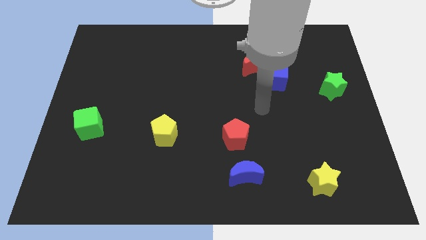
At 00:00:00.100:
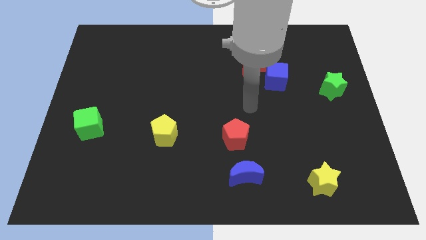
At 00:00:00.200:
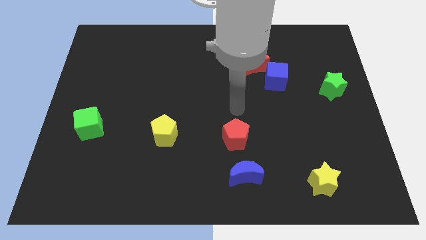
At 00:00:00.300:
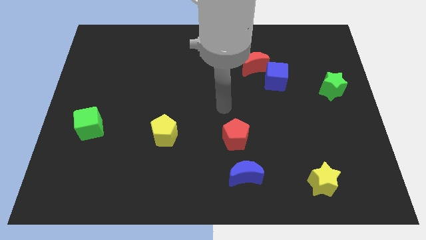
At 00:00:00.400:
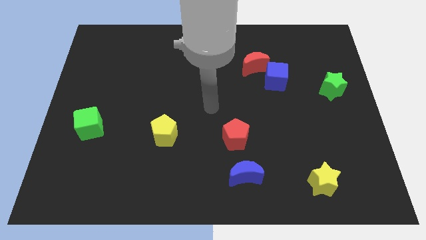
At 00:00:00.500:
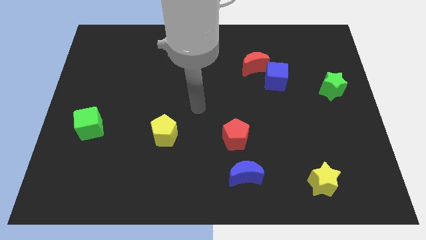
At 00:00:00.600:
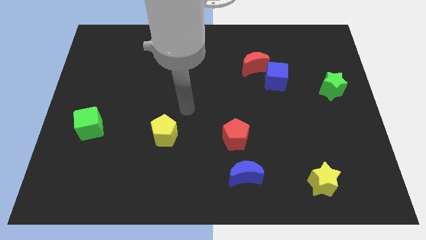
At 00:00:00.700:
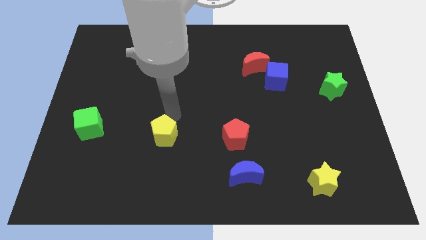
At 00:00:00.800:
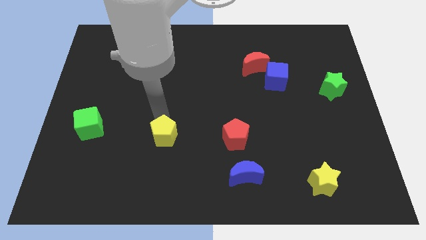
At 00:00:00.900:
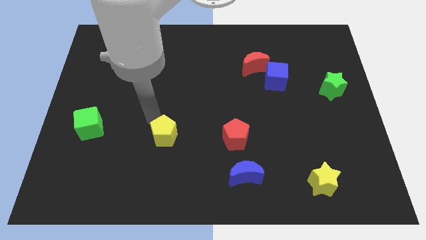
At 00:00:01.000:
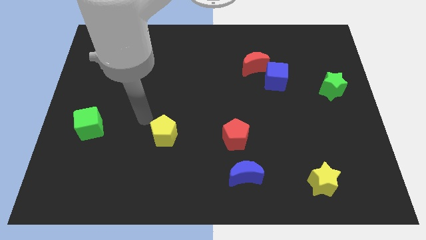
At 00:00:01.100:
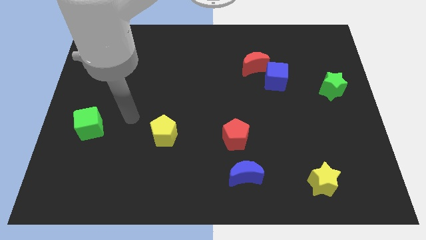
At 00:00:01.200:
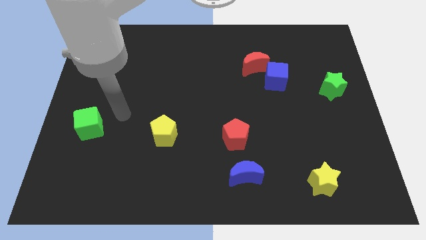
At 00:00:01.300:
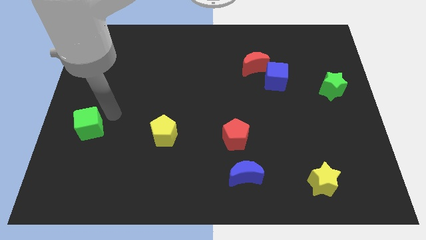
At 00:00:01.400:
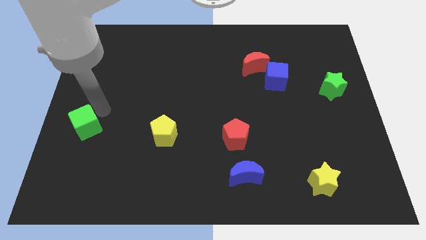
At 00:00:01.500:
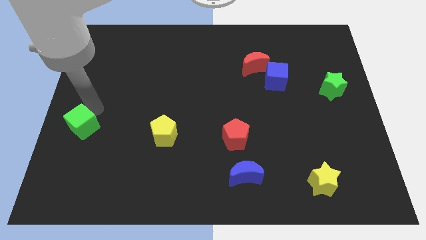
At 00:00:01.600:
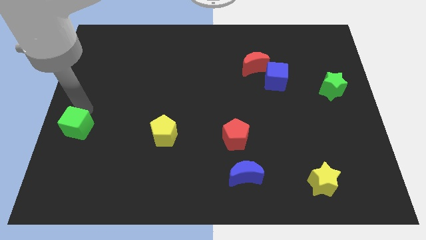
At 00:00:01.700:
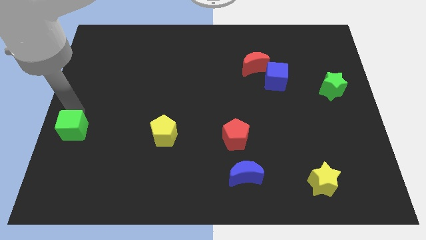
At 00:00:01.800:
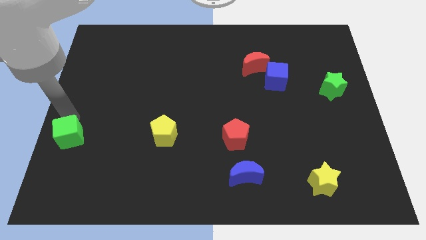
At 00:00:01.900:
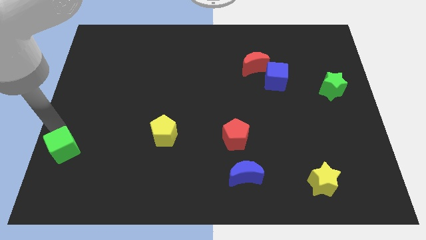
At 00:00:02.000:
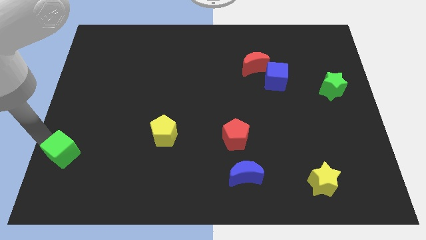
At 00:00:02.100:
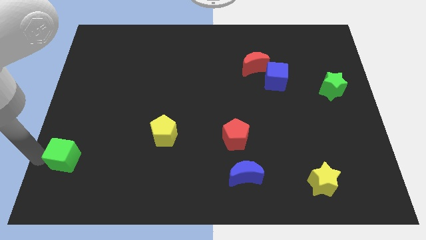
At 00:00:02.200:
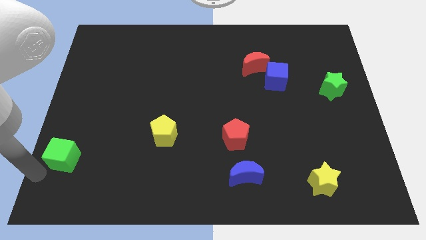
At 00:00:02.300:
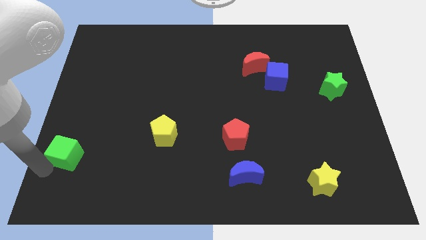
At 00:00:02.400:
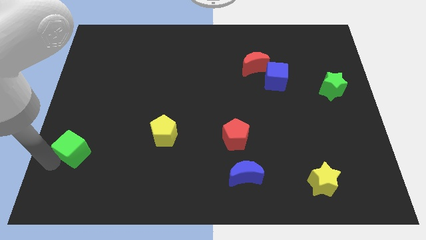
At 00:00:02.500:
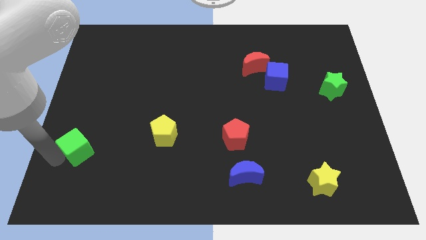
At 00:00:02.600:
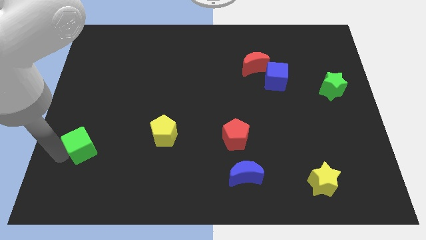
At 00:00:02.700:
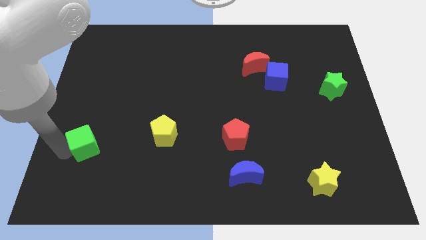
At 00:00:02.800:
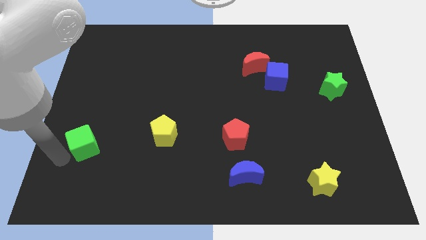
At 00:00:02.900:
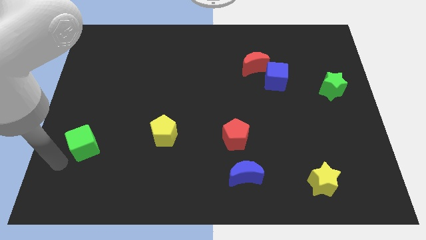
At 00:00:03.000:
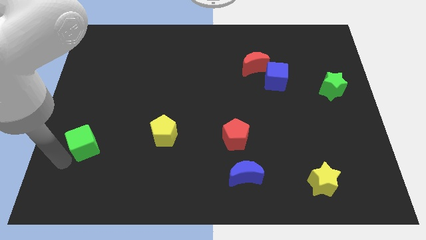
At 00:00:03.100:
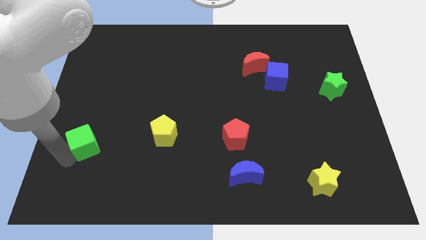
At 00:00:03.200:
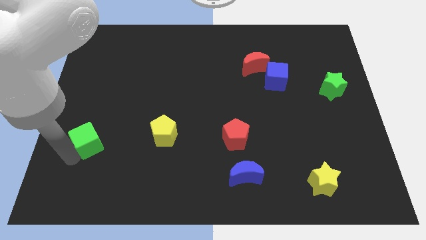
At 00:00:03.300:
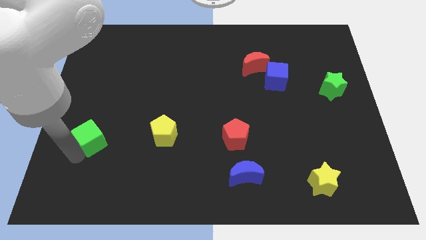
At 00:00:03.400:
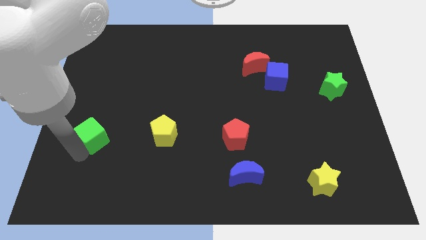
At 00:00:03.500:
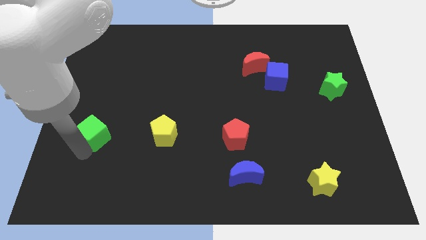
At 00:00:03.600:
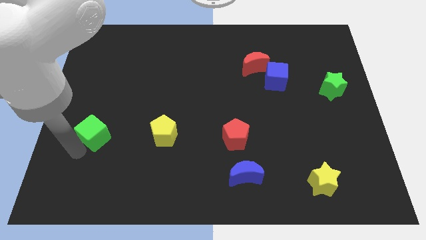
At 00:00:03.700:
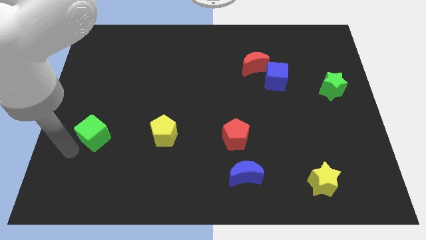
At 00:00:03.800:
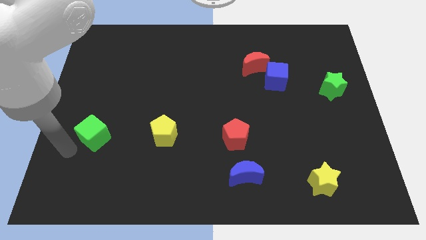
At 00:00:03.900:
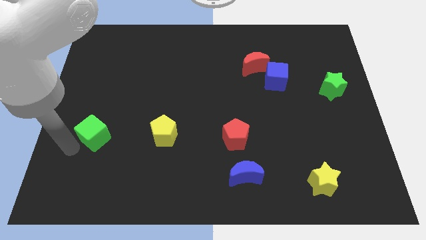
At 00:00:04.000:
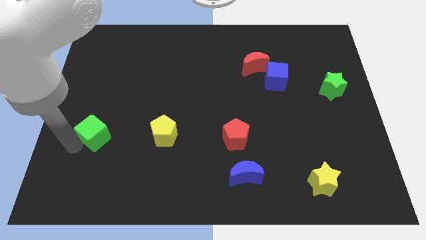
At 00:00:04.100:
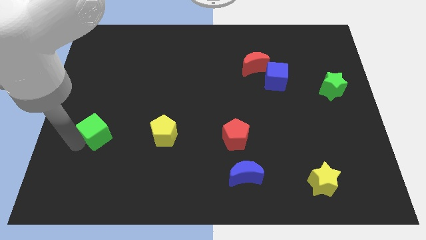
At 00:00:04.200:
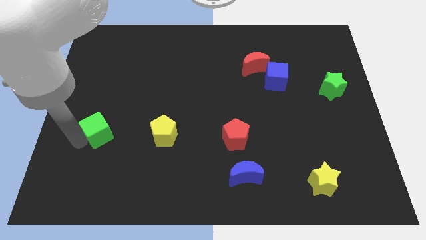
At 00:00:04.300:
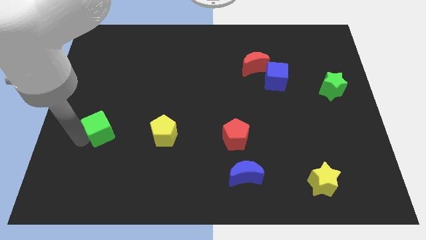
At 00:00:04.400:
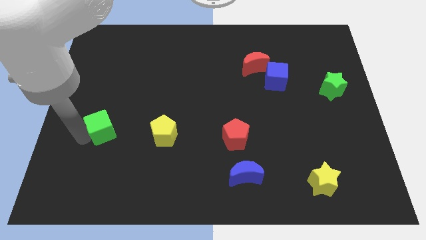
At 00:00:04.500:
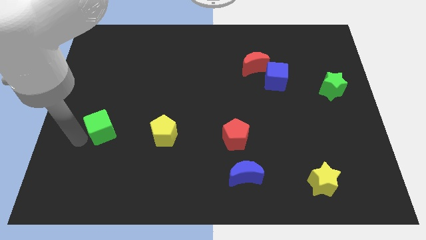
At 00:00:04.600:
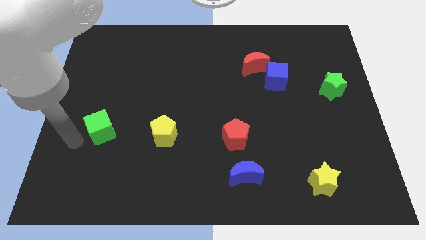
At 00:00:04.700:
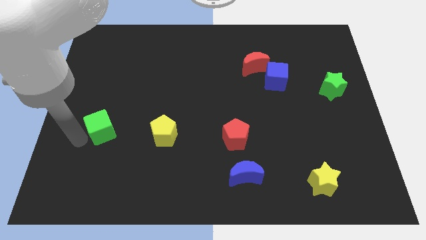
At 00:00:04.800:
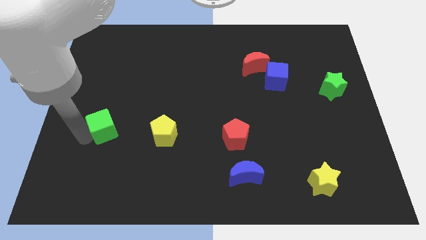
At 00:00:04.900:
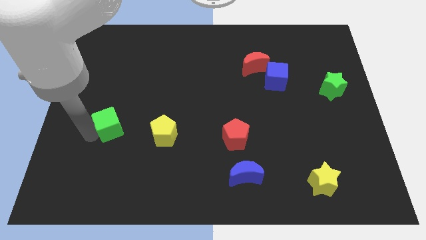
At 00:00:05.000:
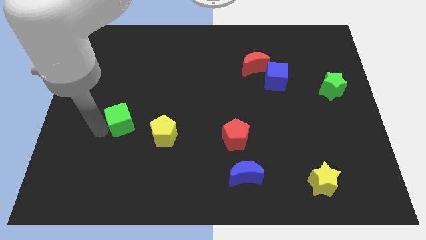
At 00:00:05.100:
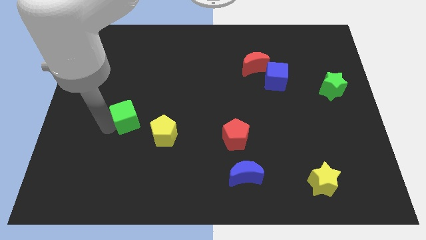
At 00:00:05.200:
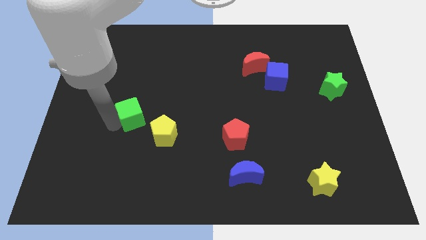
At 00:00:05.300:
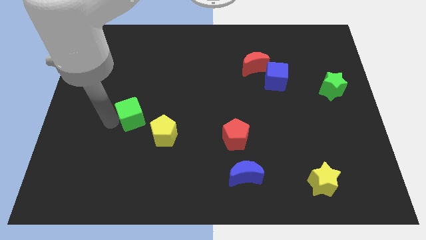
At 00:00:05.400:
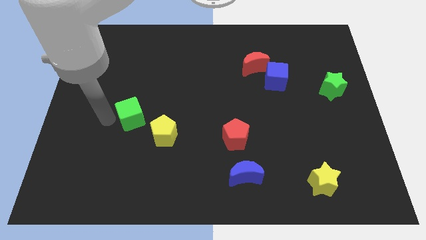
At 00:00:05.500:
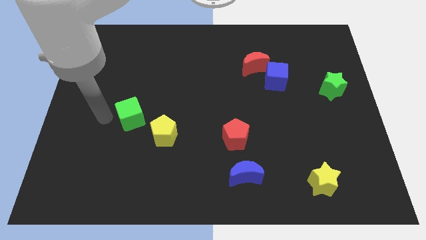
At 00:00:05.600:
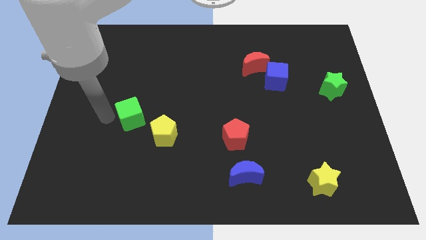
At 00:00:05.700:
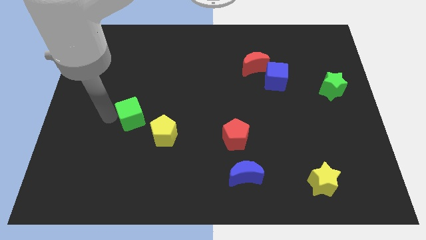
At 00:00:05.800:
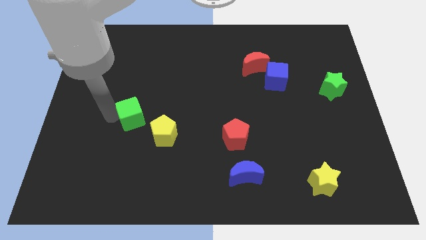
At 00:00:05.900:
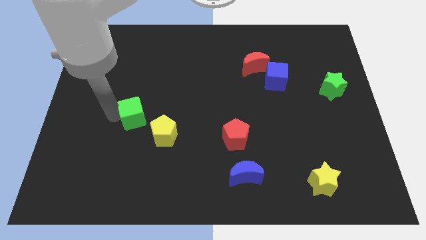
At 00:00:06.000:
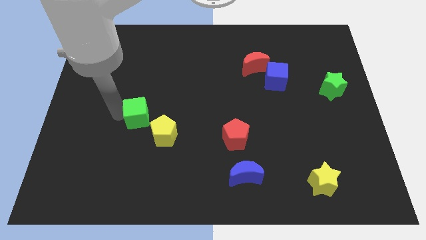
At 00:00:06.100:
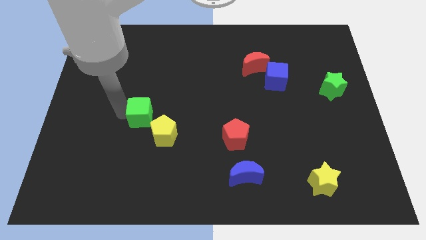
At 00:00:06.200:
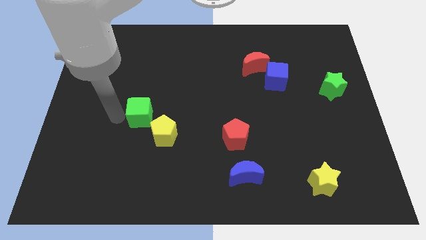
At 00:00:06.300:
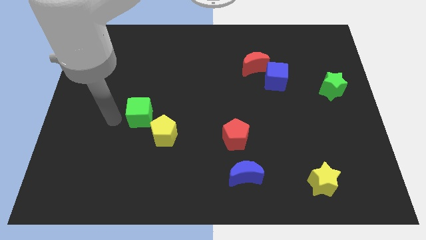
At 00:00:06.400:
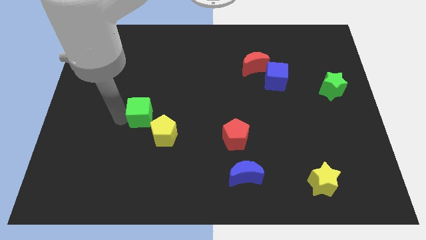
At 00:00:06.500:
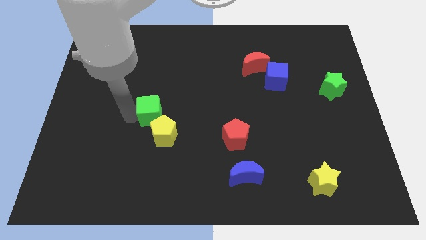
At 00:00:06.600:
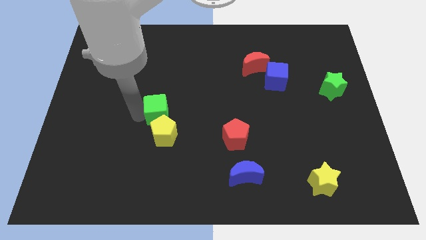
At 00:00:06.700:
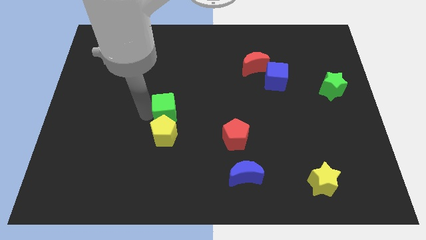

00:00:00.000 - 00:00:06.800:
slide the green cube to the middle of the board
